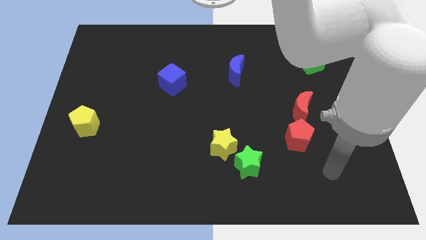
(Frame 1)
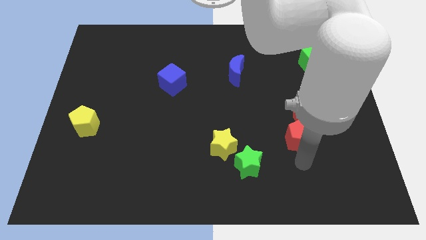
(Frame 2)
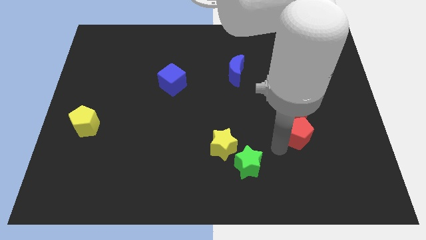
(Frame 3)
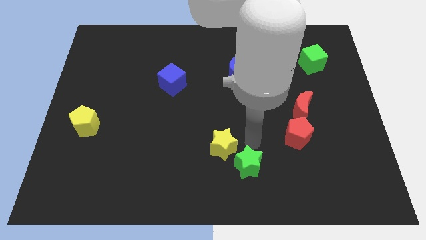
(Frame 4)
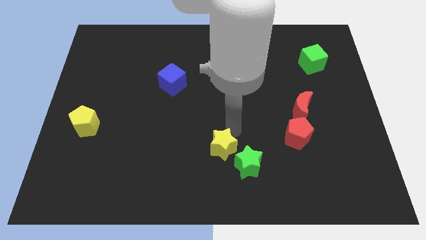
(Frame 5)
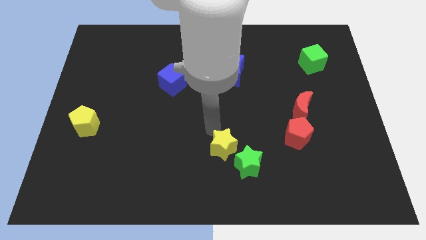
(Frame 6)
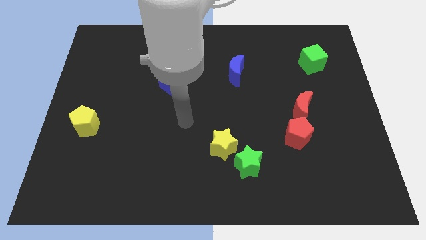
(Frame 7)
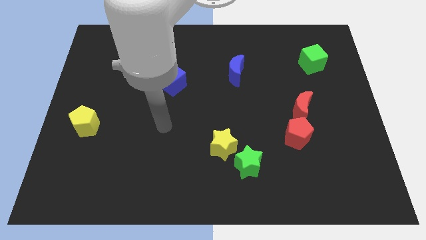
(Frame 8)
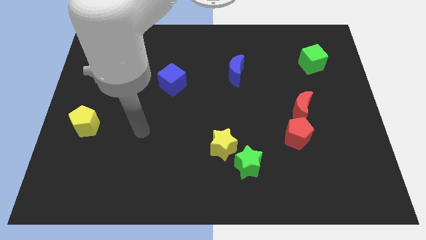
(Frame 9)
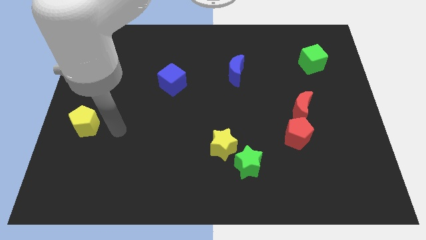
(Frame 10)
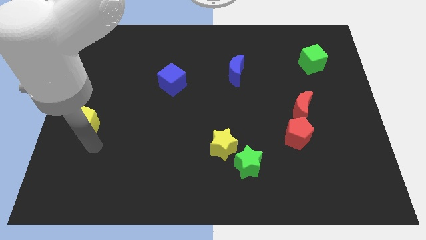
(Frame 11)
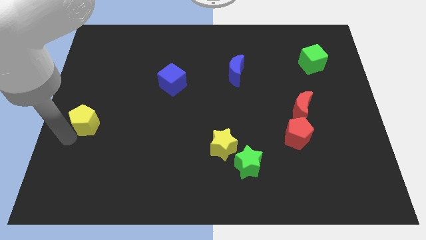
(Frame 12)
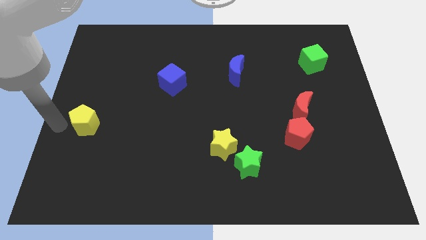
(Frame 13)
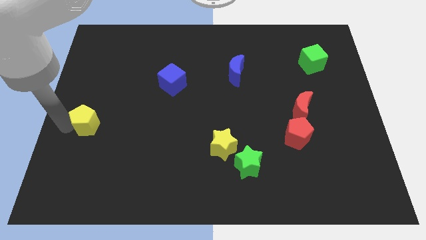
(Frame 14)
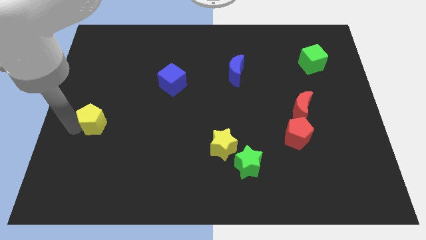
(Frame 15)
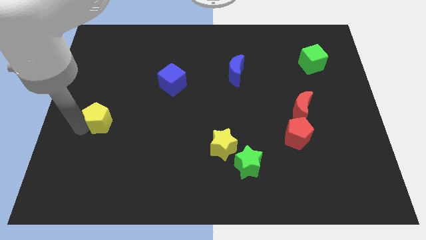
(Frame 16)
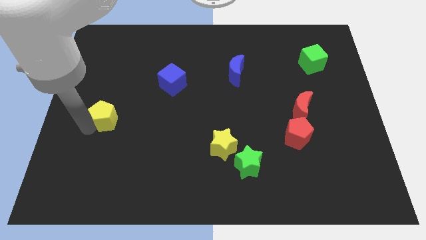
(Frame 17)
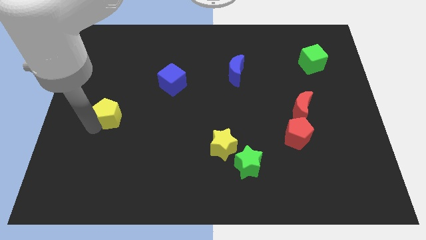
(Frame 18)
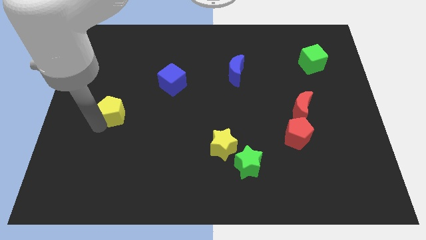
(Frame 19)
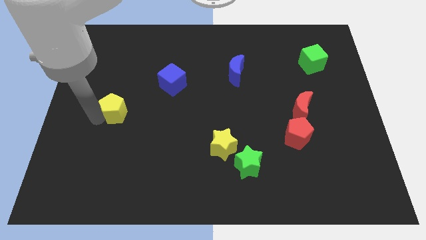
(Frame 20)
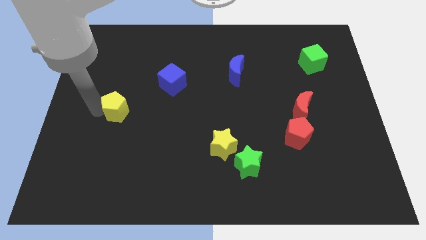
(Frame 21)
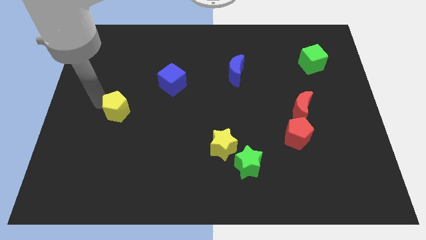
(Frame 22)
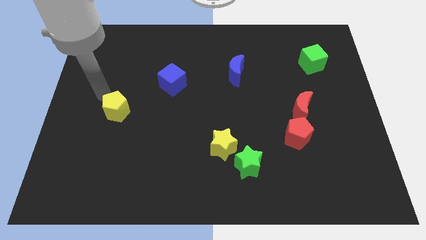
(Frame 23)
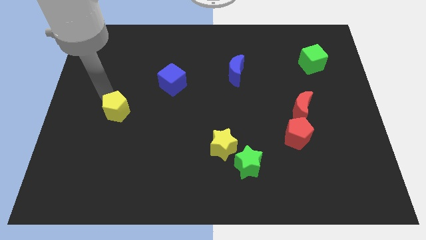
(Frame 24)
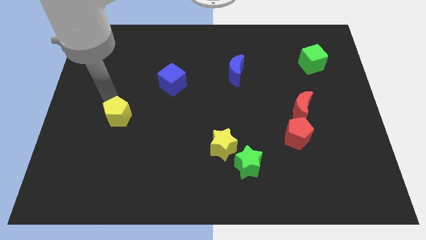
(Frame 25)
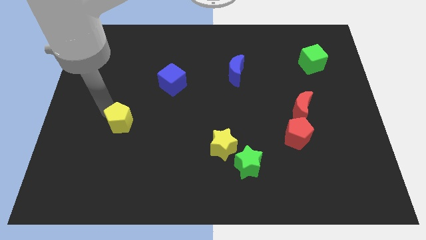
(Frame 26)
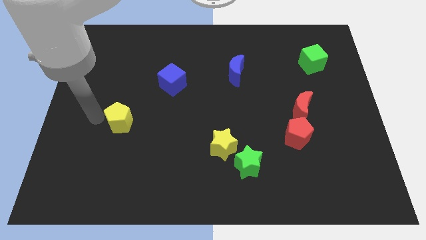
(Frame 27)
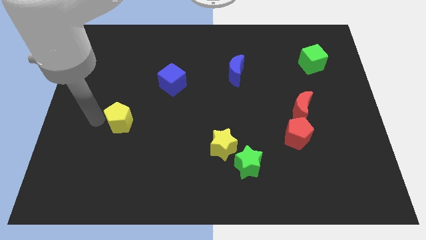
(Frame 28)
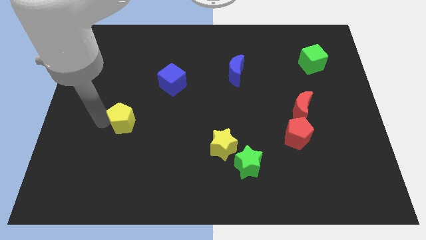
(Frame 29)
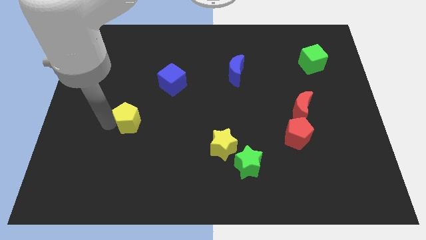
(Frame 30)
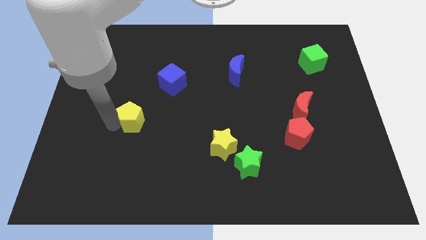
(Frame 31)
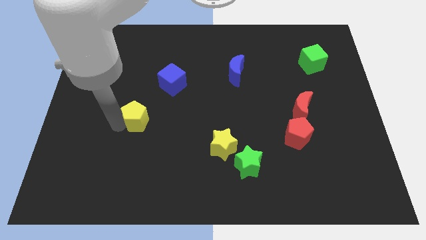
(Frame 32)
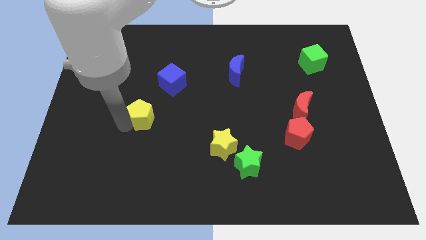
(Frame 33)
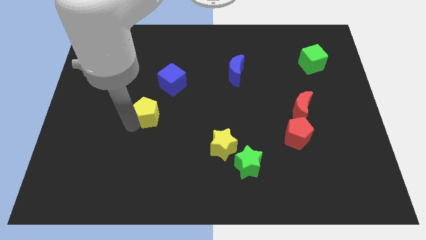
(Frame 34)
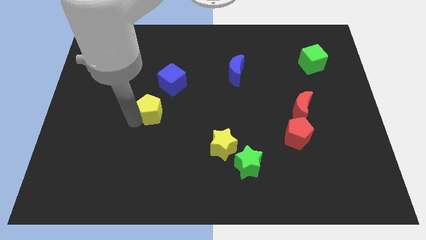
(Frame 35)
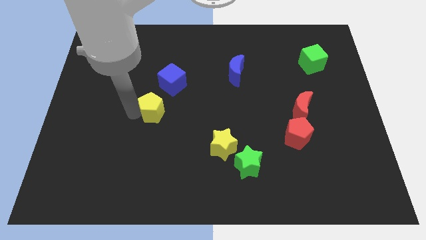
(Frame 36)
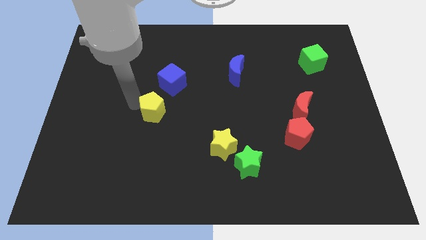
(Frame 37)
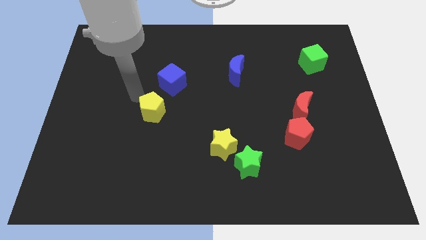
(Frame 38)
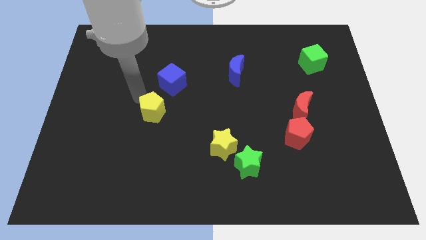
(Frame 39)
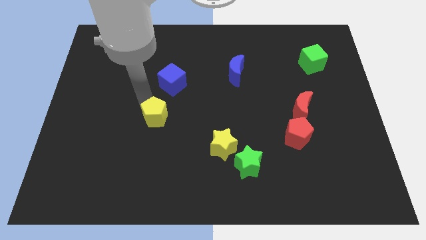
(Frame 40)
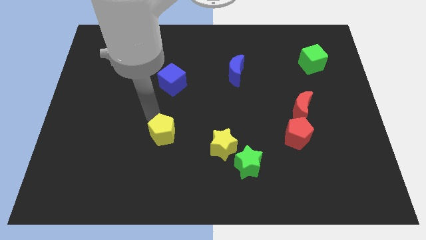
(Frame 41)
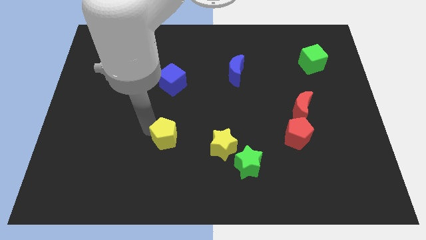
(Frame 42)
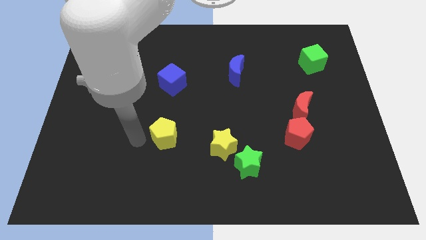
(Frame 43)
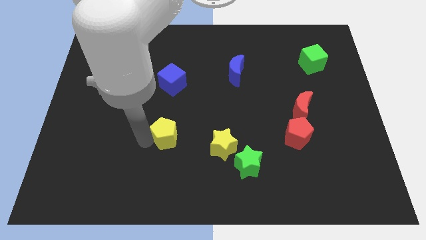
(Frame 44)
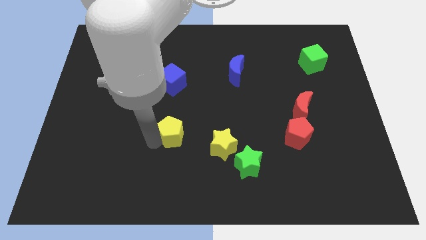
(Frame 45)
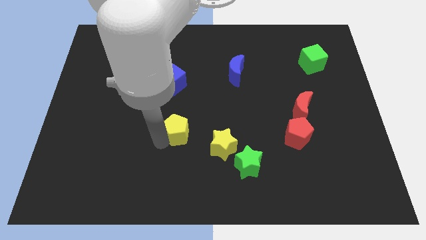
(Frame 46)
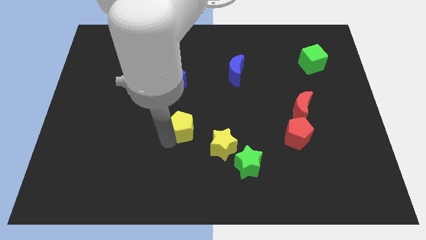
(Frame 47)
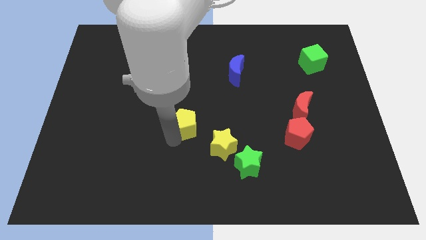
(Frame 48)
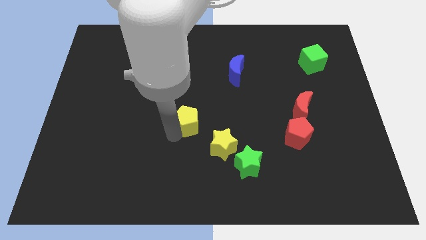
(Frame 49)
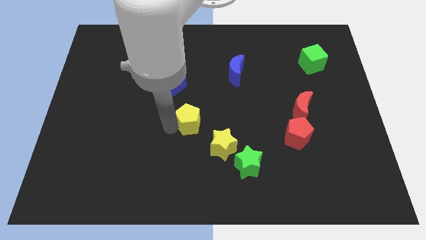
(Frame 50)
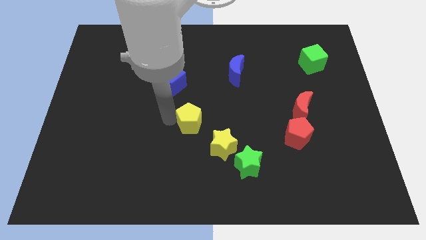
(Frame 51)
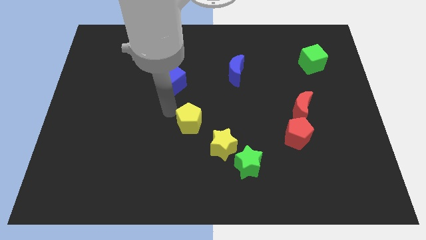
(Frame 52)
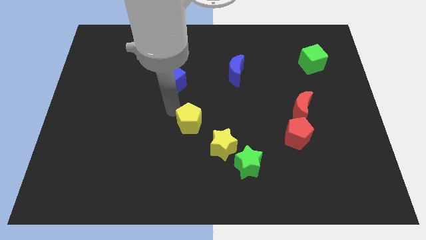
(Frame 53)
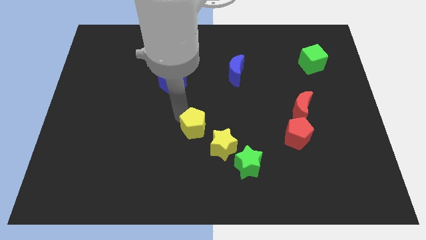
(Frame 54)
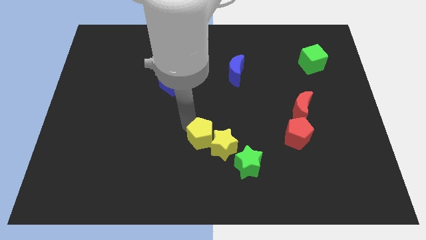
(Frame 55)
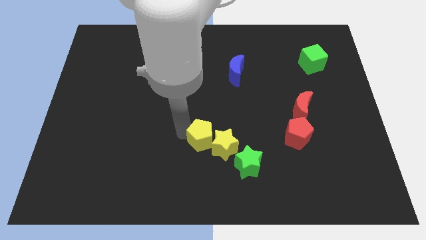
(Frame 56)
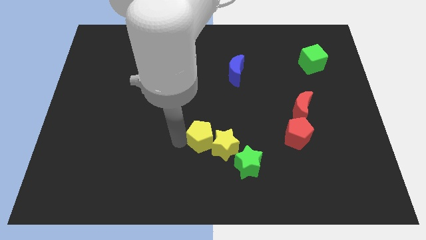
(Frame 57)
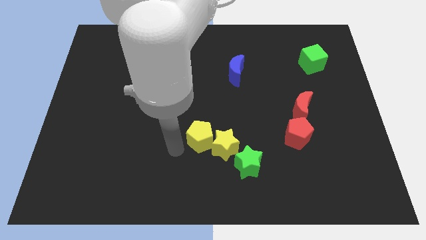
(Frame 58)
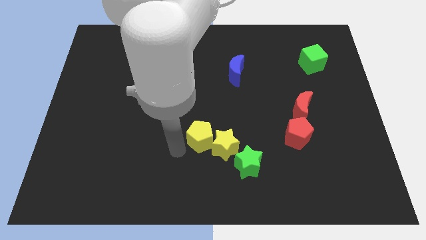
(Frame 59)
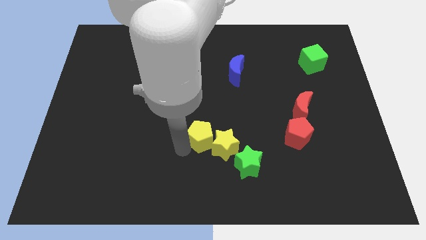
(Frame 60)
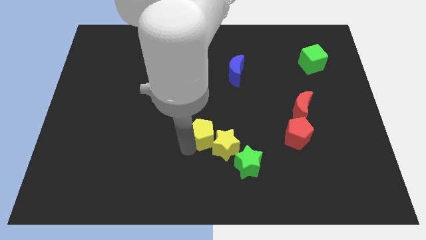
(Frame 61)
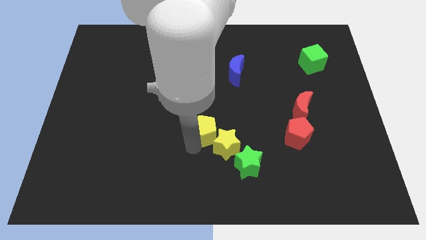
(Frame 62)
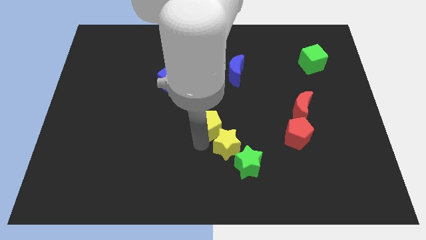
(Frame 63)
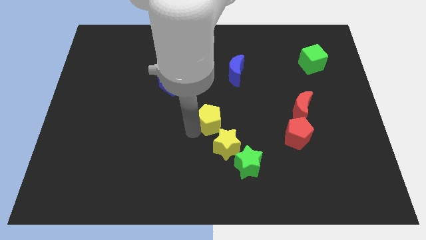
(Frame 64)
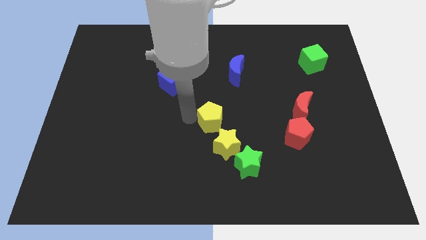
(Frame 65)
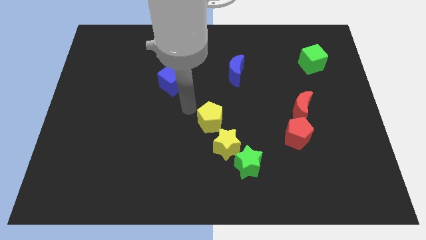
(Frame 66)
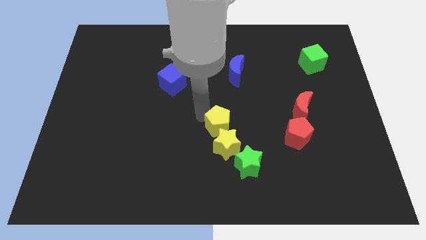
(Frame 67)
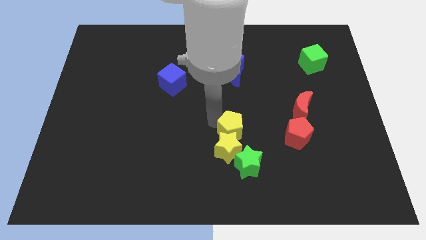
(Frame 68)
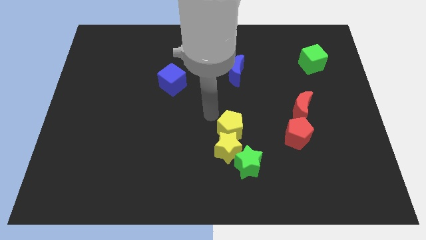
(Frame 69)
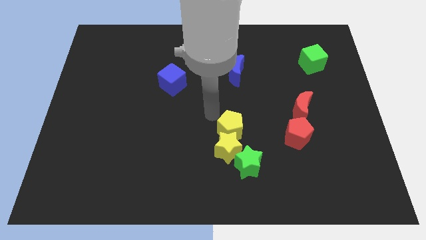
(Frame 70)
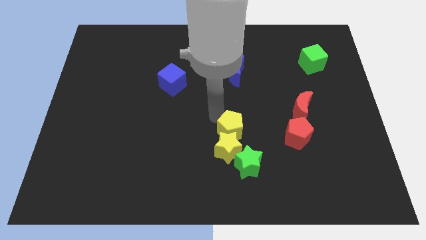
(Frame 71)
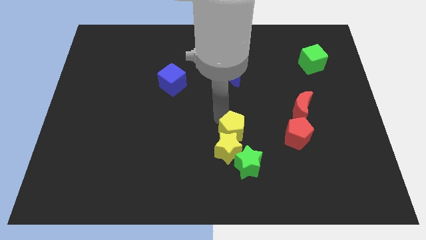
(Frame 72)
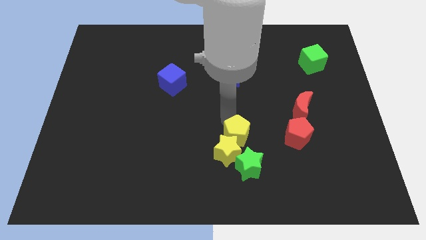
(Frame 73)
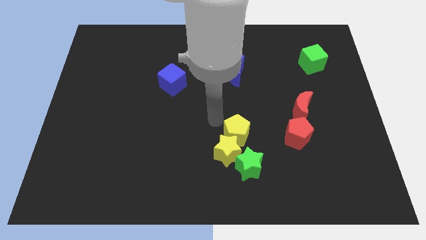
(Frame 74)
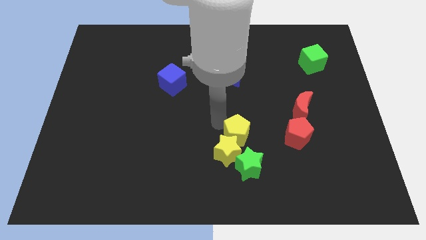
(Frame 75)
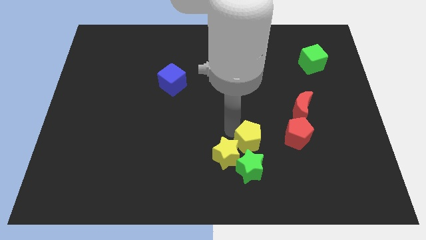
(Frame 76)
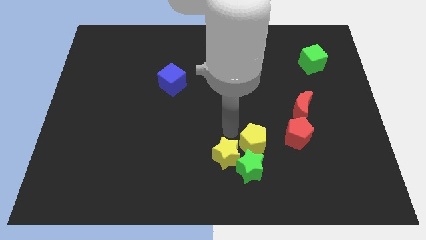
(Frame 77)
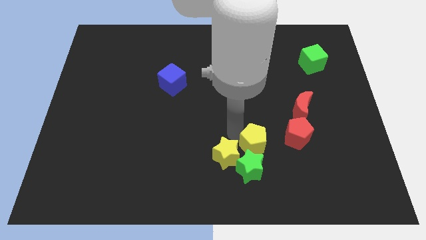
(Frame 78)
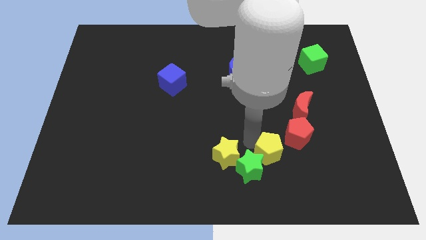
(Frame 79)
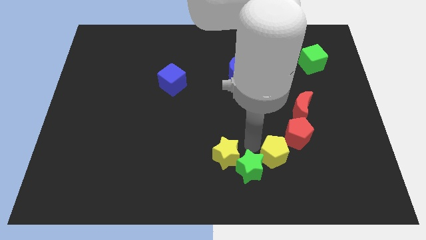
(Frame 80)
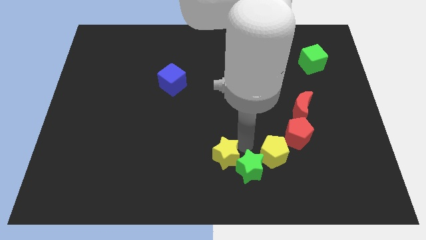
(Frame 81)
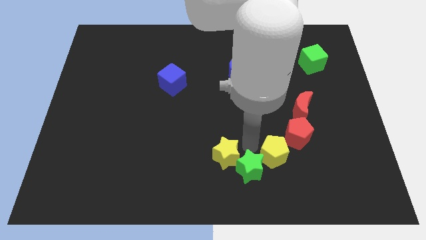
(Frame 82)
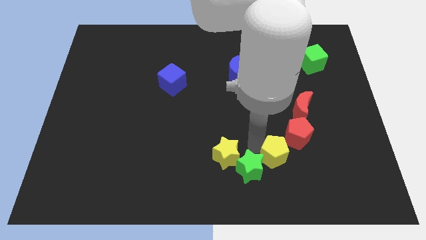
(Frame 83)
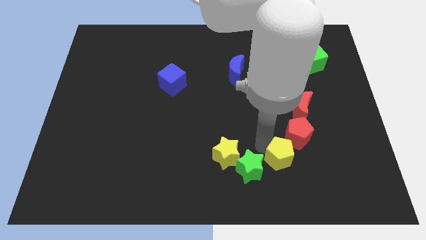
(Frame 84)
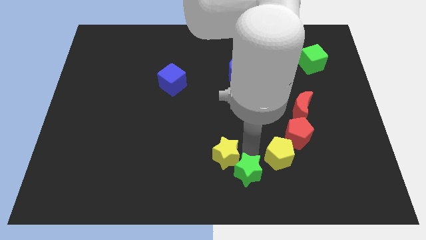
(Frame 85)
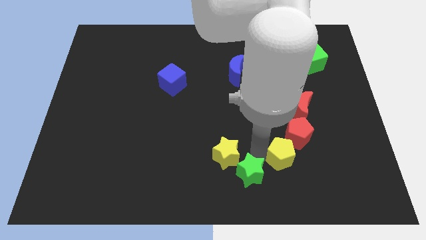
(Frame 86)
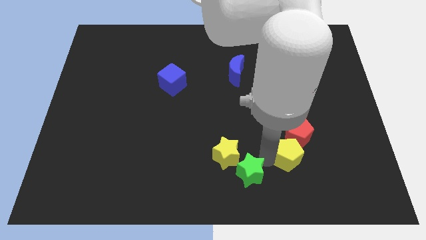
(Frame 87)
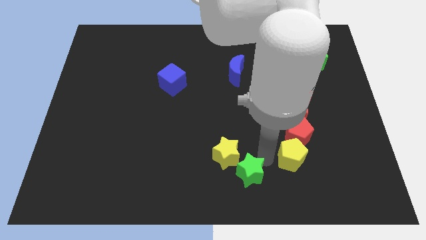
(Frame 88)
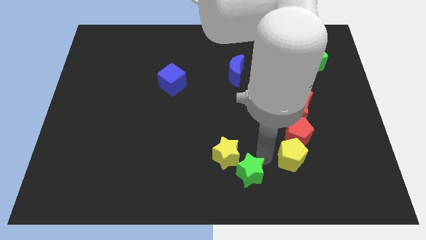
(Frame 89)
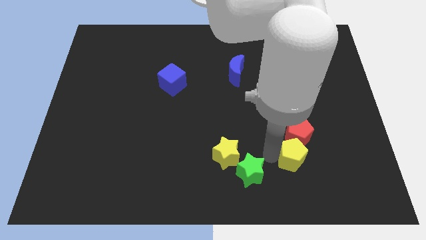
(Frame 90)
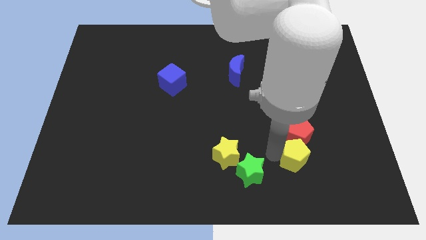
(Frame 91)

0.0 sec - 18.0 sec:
move the yellow pentagon diagonally down and to the right of the red pentagon
